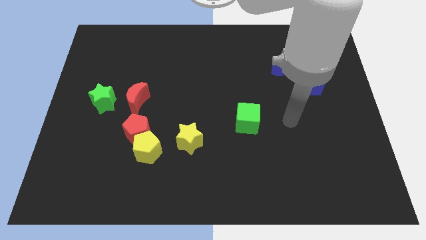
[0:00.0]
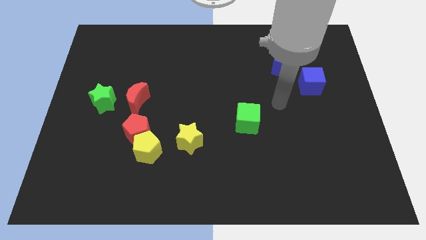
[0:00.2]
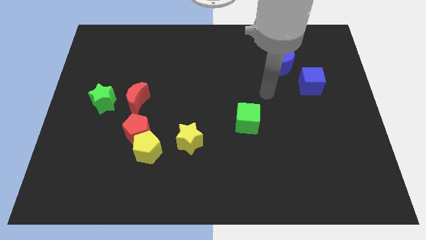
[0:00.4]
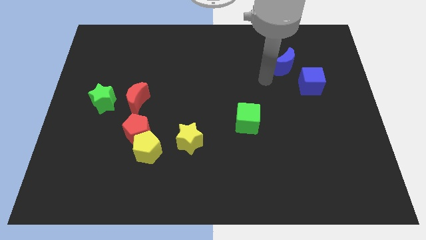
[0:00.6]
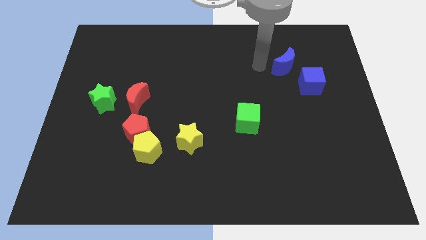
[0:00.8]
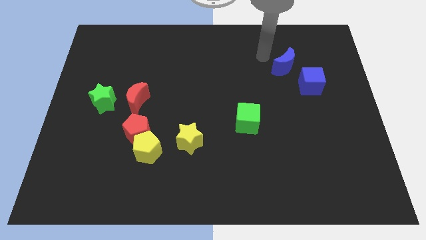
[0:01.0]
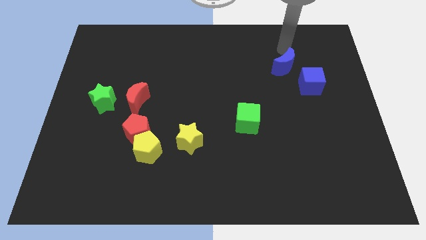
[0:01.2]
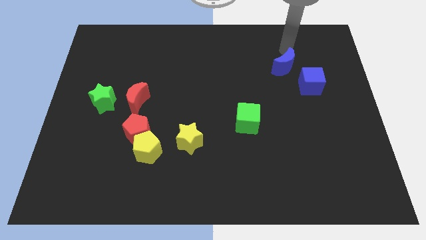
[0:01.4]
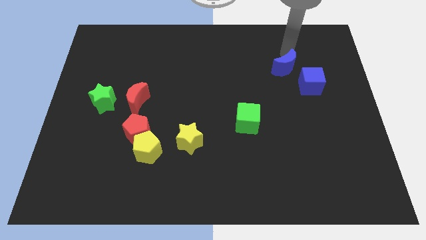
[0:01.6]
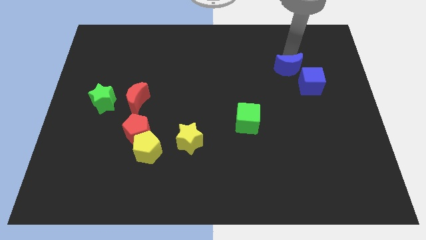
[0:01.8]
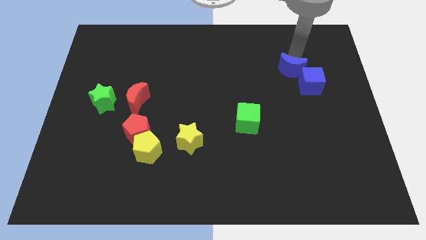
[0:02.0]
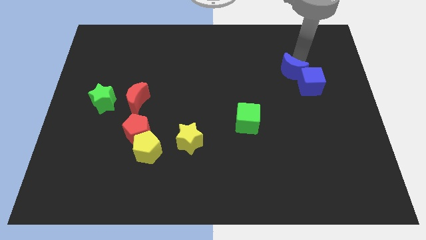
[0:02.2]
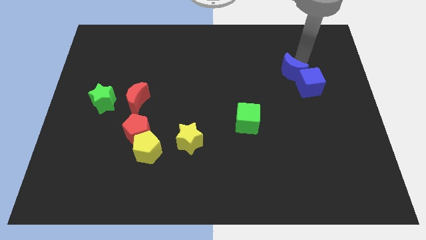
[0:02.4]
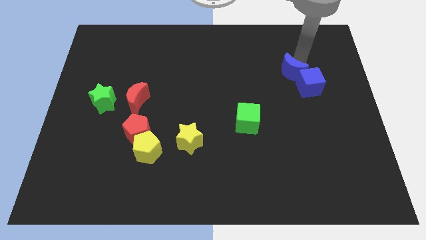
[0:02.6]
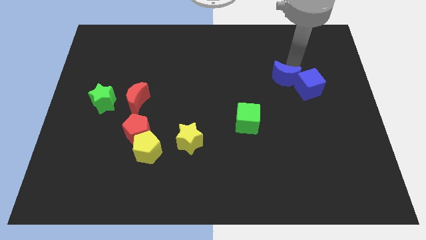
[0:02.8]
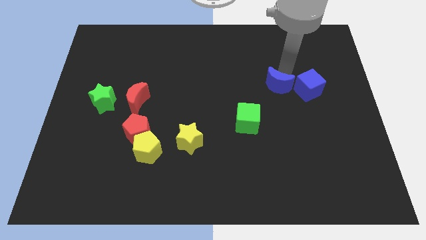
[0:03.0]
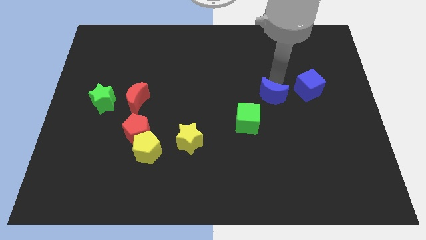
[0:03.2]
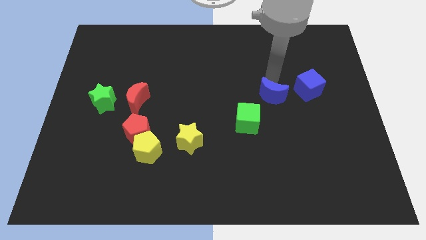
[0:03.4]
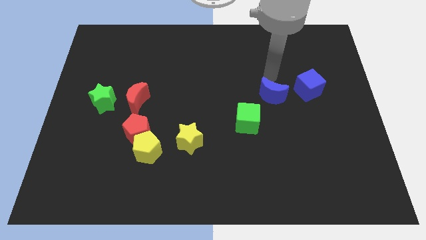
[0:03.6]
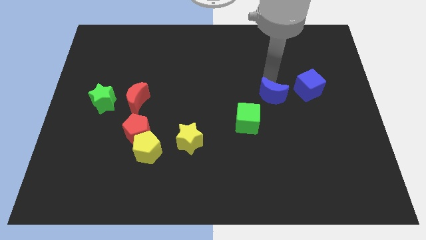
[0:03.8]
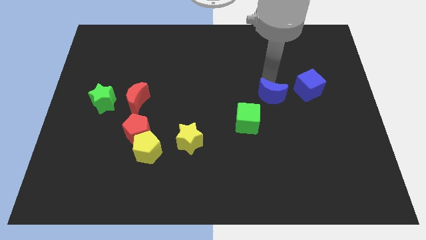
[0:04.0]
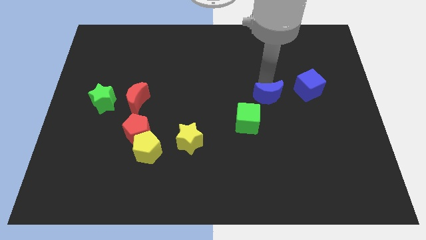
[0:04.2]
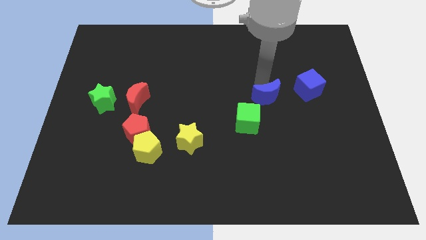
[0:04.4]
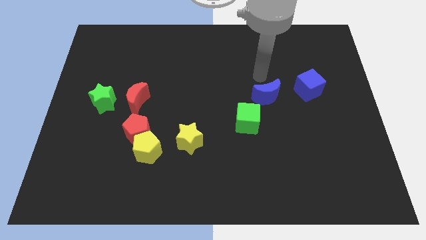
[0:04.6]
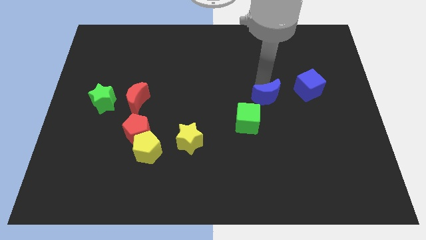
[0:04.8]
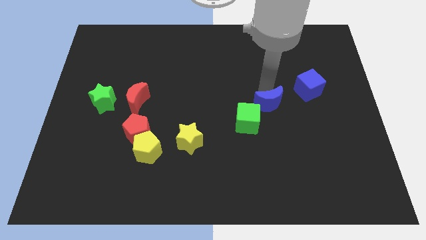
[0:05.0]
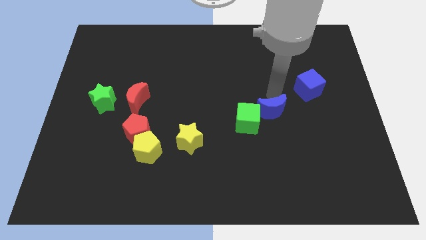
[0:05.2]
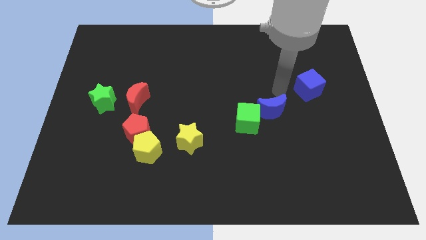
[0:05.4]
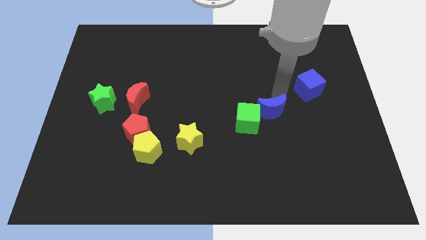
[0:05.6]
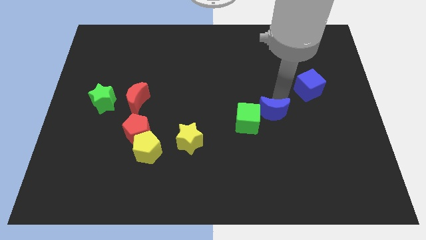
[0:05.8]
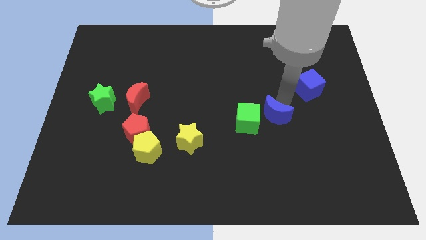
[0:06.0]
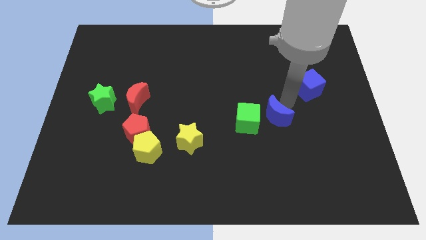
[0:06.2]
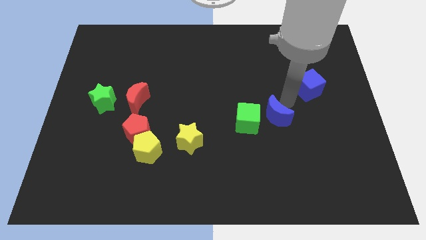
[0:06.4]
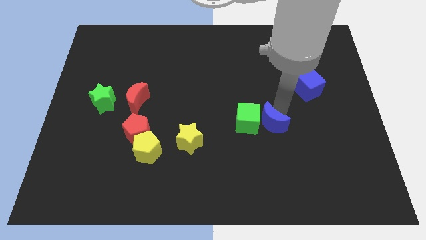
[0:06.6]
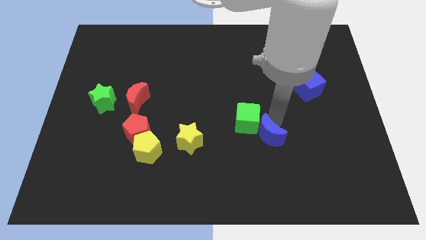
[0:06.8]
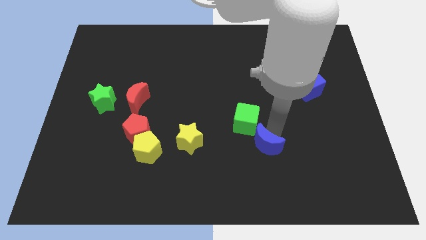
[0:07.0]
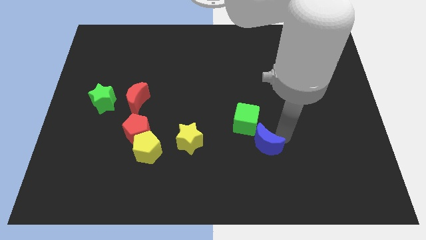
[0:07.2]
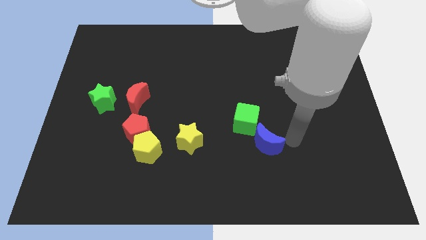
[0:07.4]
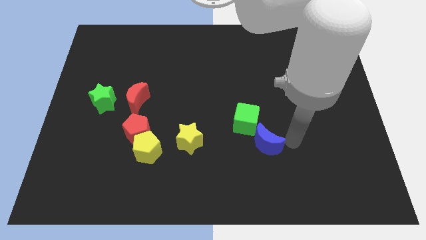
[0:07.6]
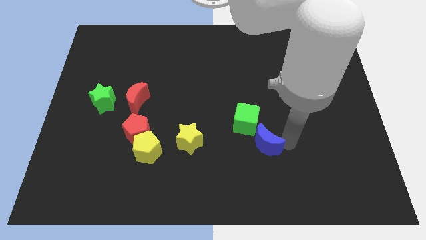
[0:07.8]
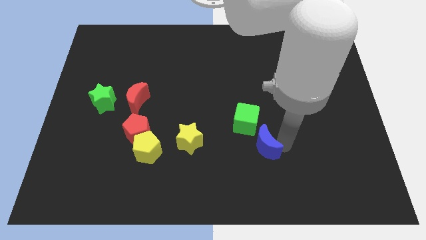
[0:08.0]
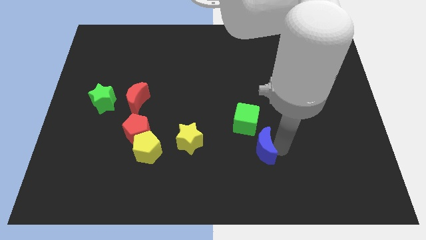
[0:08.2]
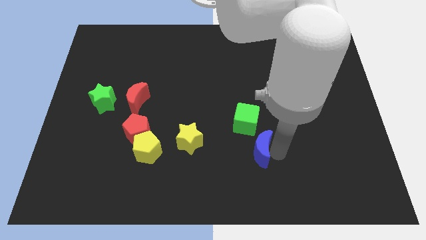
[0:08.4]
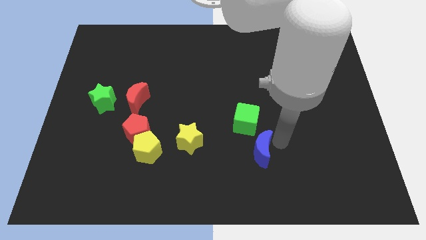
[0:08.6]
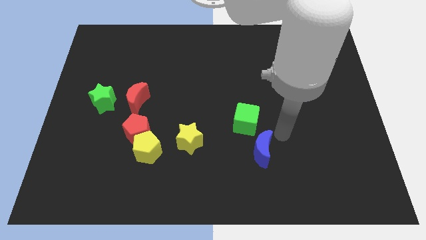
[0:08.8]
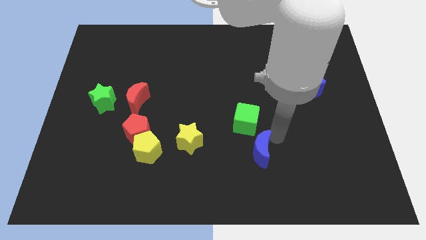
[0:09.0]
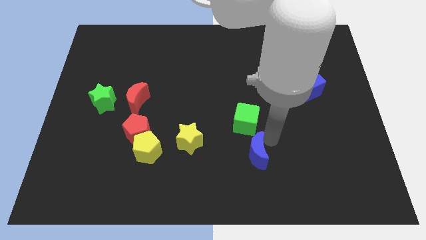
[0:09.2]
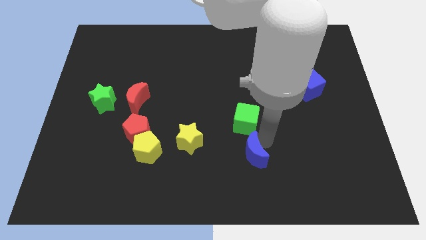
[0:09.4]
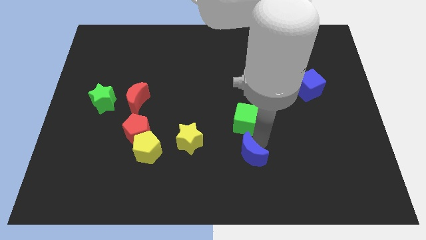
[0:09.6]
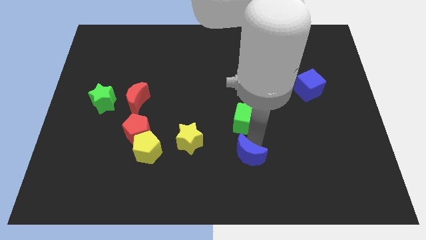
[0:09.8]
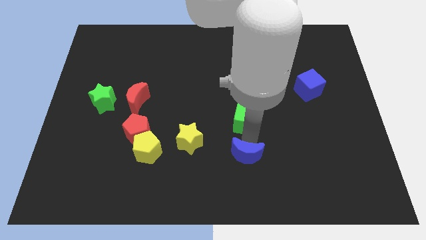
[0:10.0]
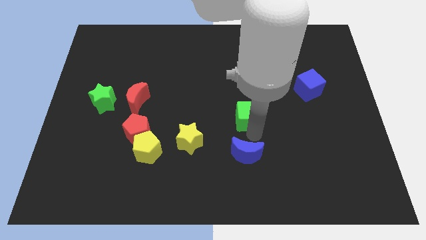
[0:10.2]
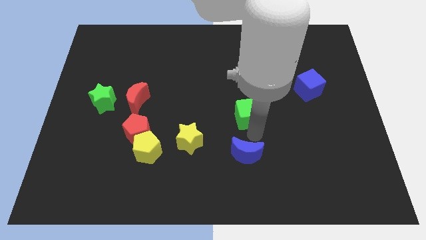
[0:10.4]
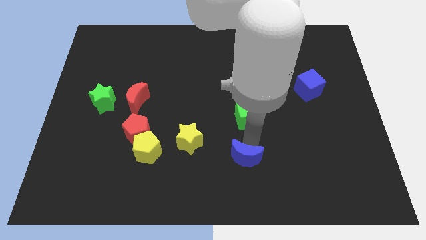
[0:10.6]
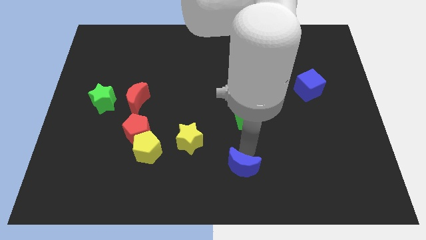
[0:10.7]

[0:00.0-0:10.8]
slide the blue moon to the bottom side

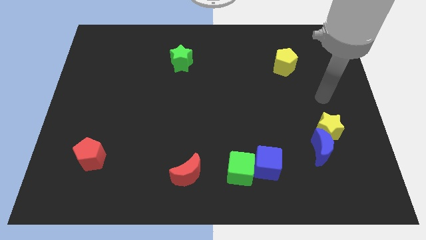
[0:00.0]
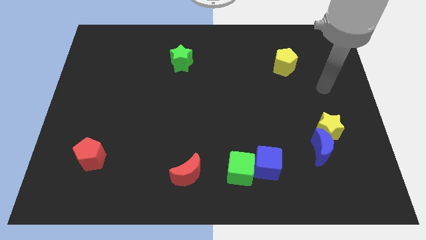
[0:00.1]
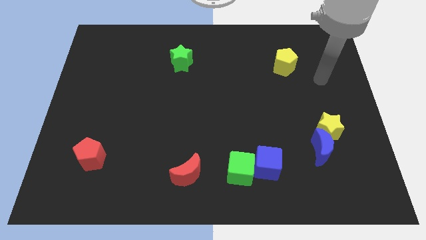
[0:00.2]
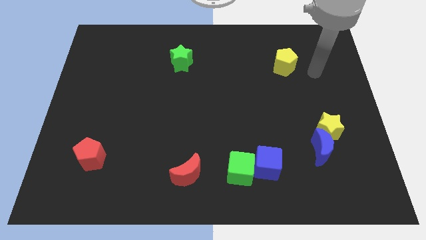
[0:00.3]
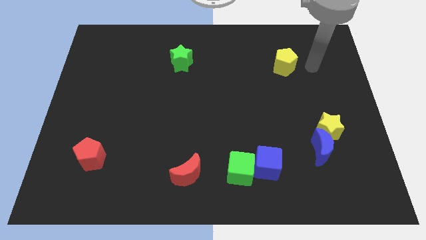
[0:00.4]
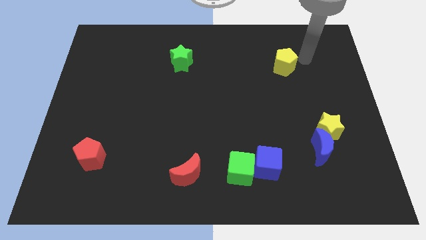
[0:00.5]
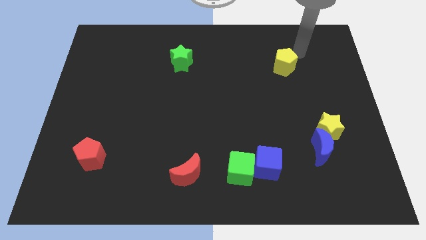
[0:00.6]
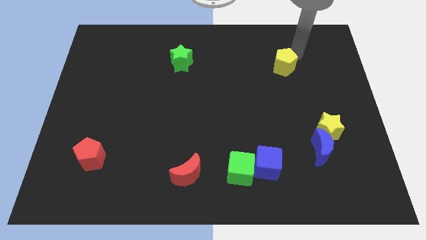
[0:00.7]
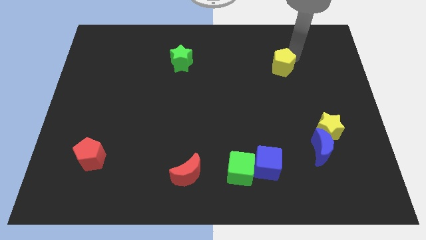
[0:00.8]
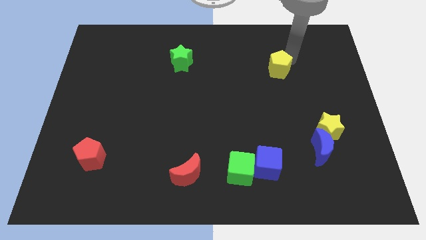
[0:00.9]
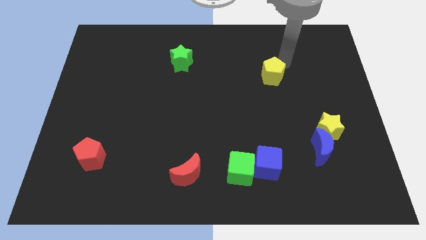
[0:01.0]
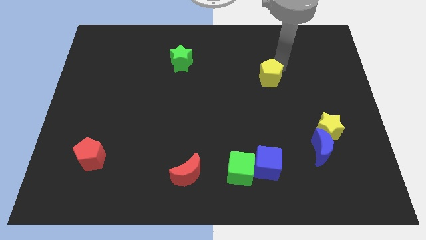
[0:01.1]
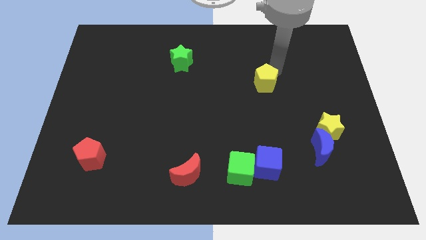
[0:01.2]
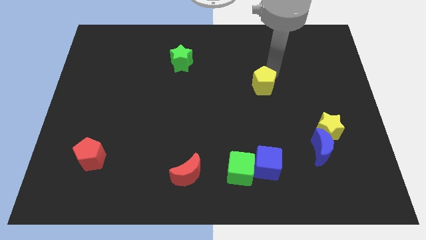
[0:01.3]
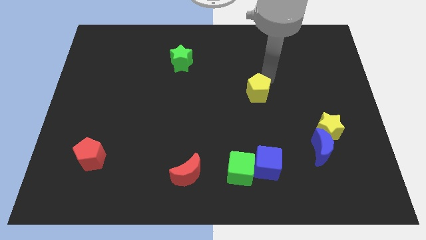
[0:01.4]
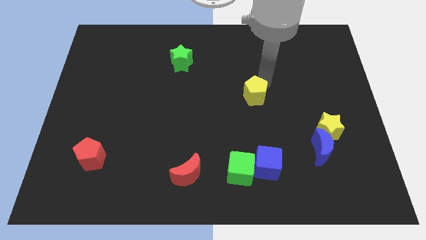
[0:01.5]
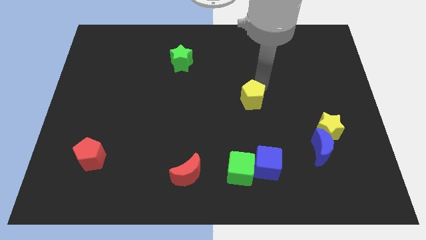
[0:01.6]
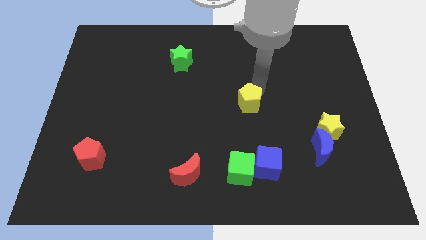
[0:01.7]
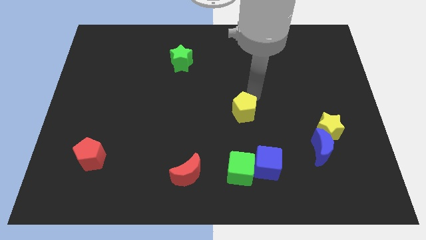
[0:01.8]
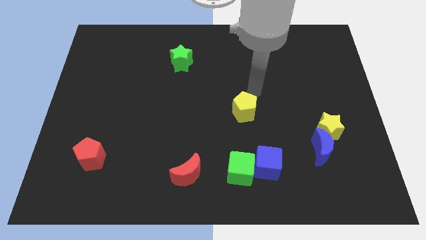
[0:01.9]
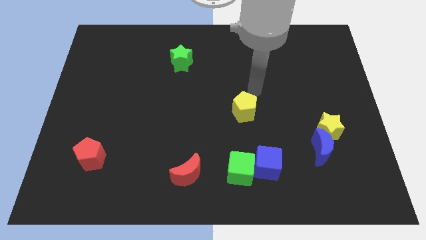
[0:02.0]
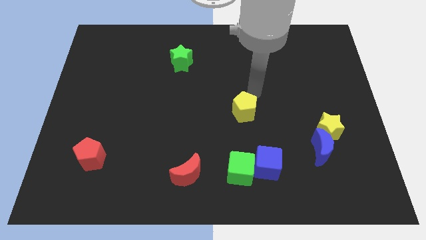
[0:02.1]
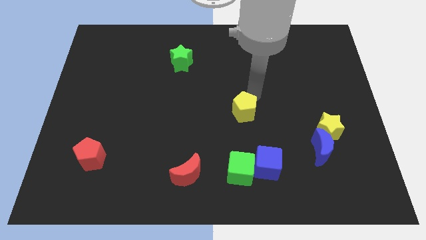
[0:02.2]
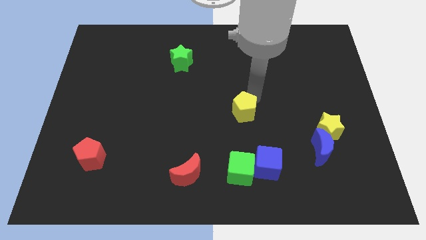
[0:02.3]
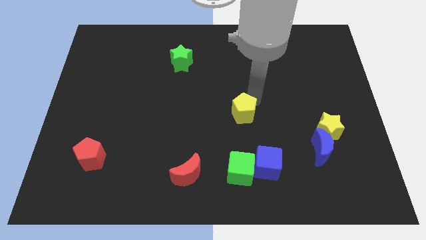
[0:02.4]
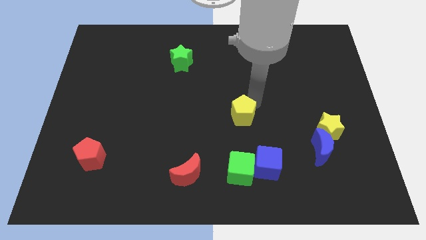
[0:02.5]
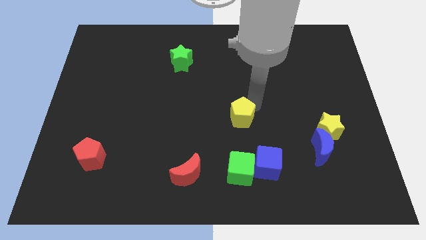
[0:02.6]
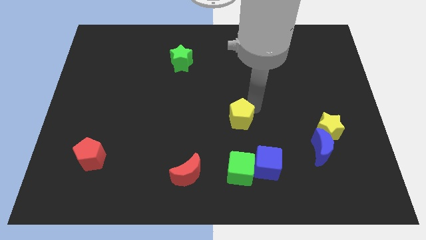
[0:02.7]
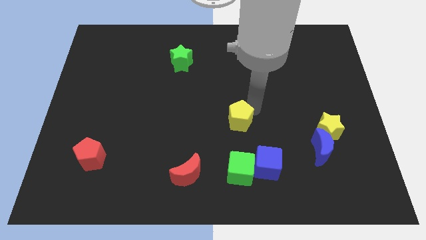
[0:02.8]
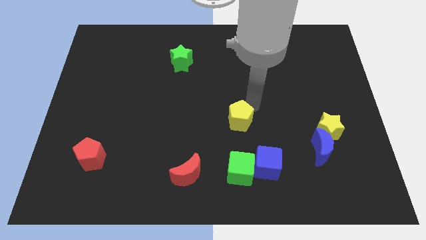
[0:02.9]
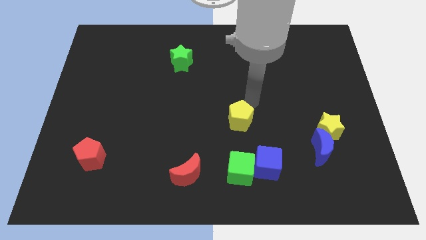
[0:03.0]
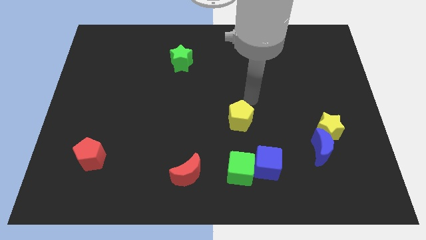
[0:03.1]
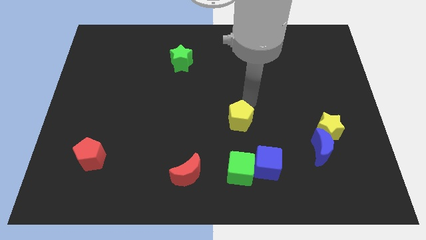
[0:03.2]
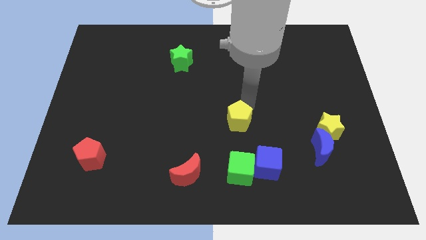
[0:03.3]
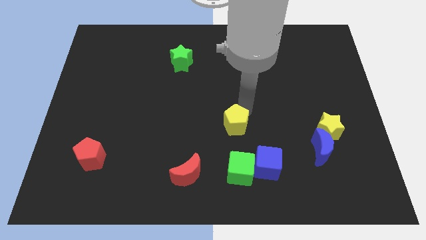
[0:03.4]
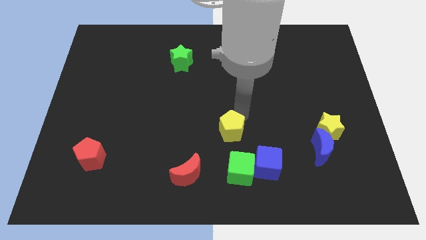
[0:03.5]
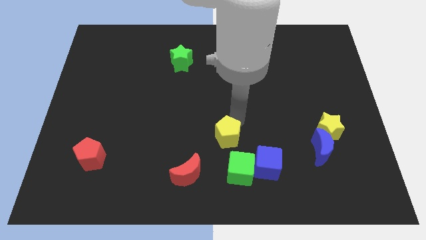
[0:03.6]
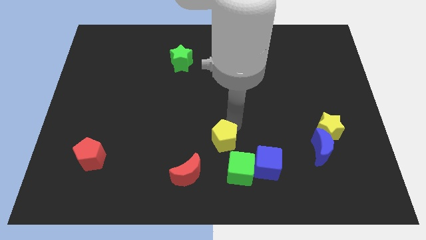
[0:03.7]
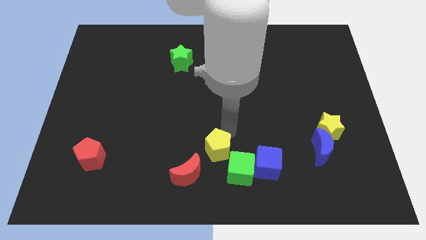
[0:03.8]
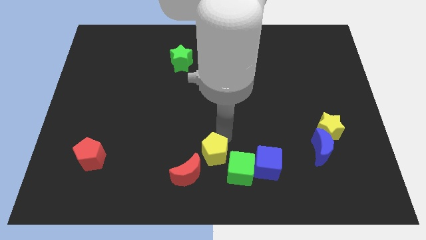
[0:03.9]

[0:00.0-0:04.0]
put the yellow pentagon to the bottom
